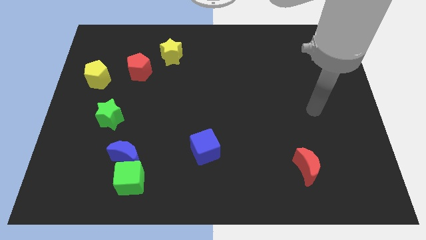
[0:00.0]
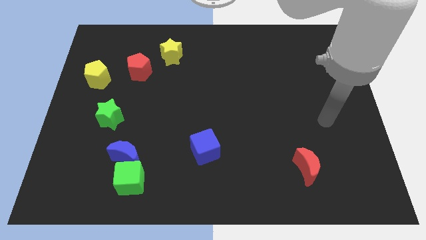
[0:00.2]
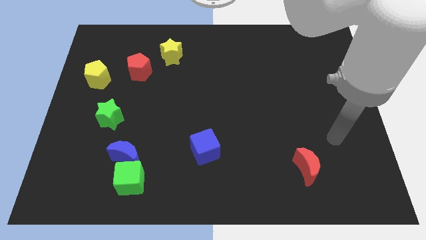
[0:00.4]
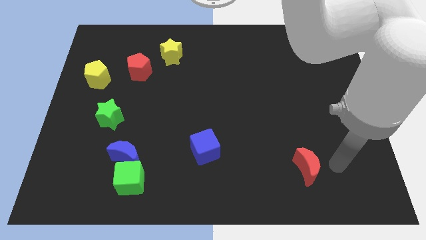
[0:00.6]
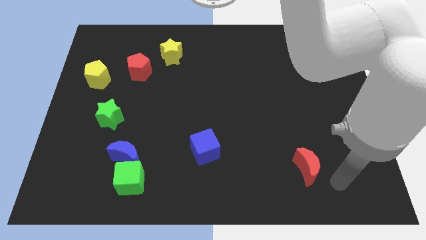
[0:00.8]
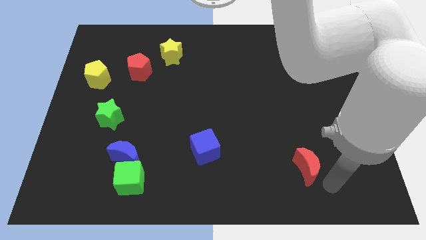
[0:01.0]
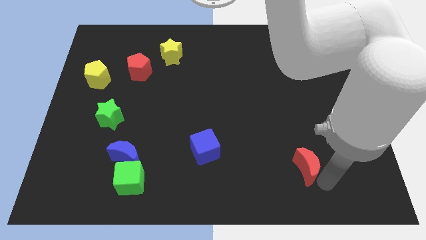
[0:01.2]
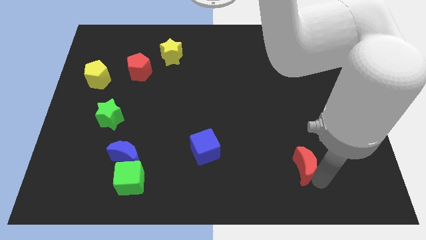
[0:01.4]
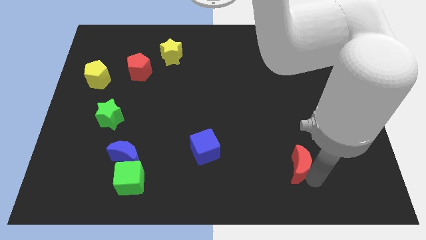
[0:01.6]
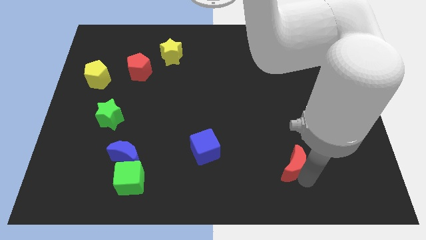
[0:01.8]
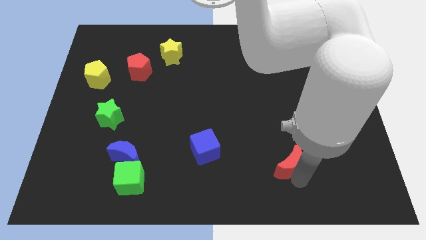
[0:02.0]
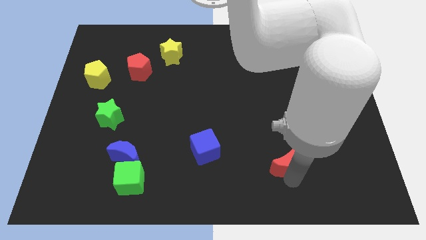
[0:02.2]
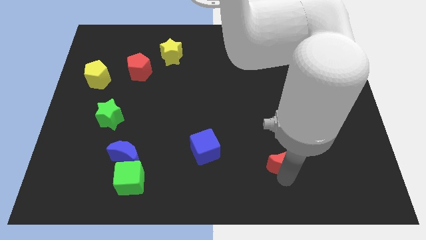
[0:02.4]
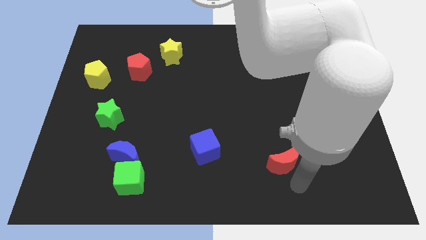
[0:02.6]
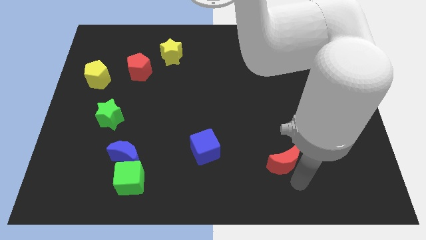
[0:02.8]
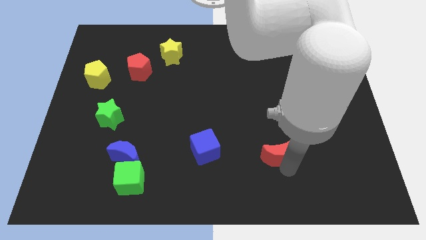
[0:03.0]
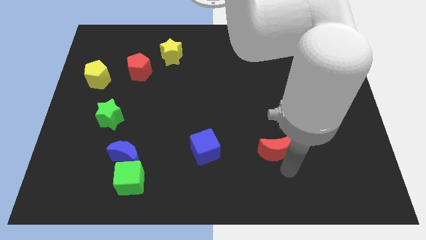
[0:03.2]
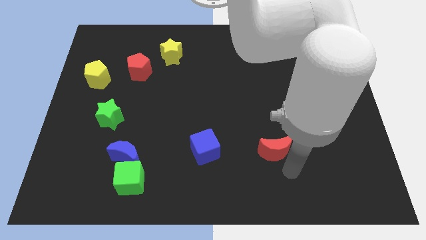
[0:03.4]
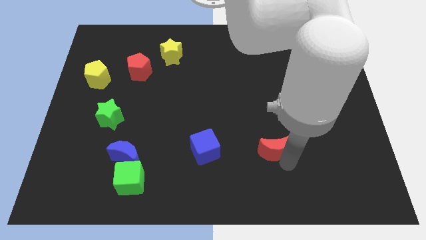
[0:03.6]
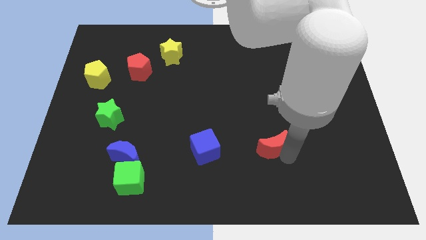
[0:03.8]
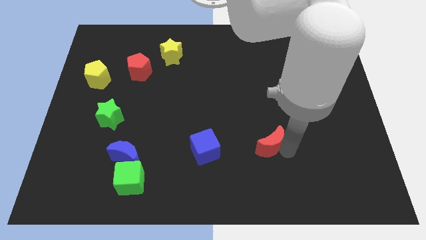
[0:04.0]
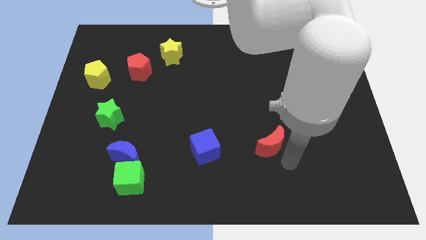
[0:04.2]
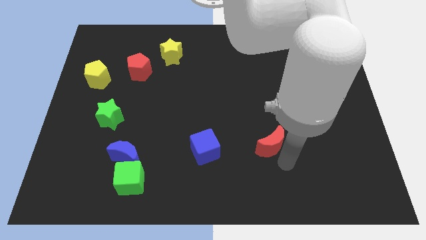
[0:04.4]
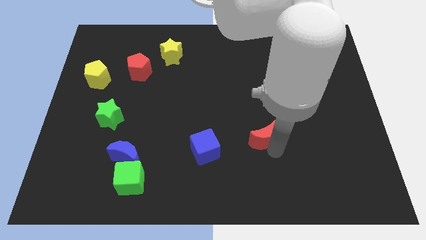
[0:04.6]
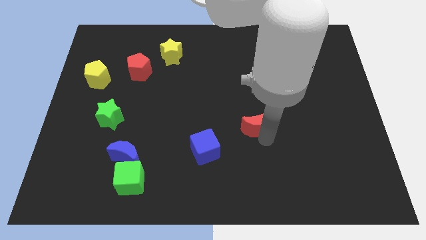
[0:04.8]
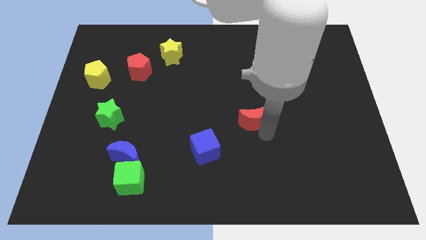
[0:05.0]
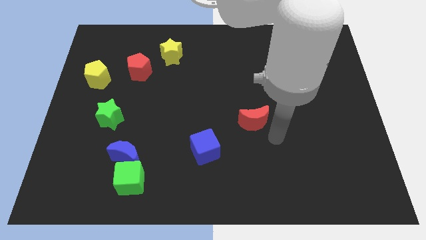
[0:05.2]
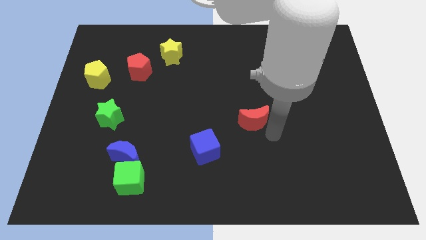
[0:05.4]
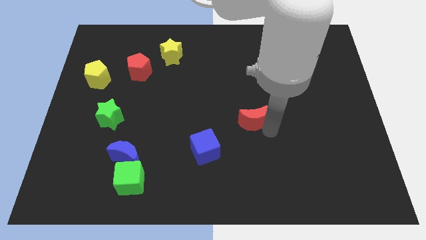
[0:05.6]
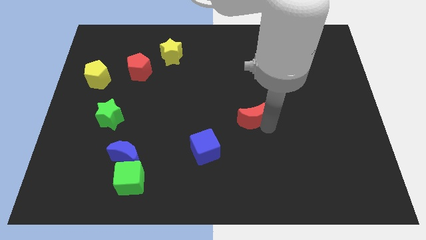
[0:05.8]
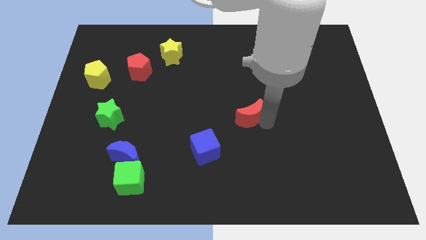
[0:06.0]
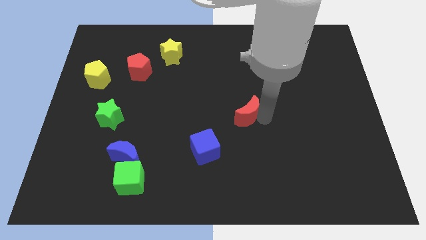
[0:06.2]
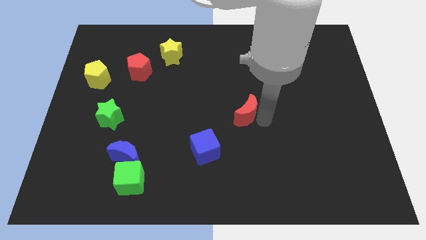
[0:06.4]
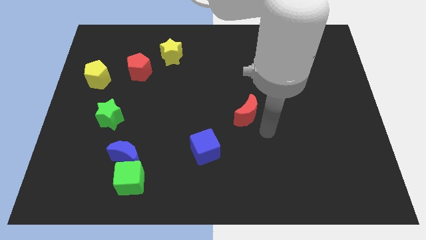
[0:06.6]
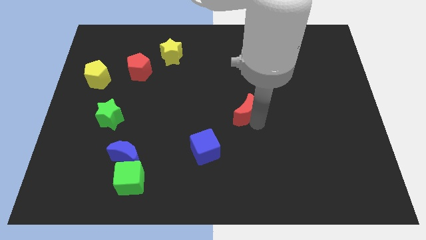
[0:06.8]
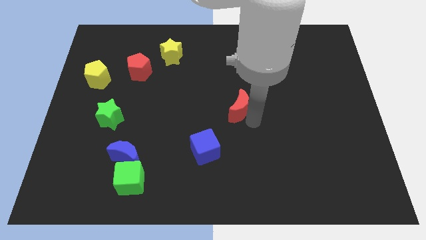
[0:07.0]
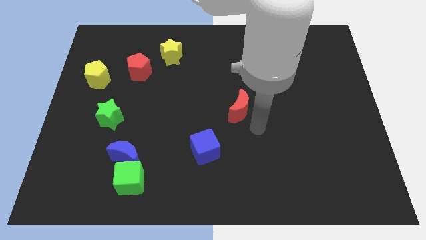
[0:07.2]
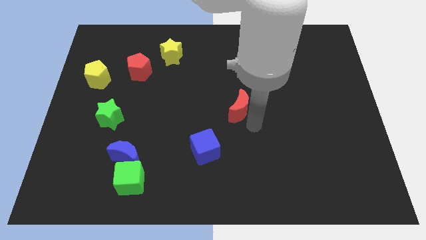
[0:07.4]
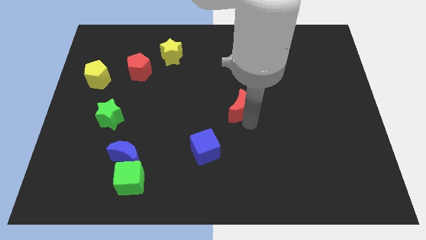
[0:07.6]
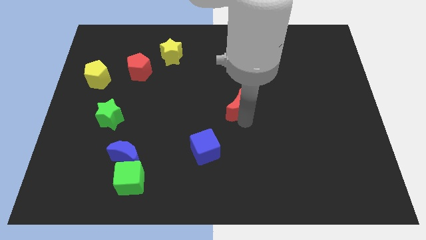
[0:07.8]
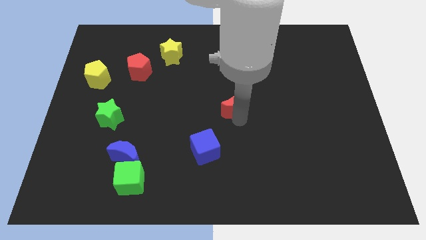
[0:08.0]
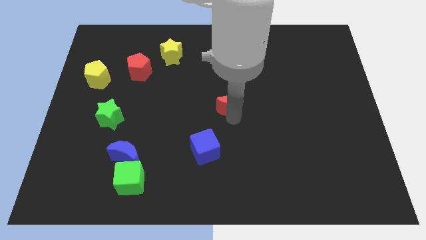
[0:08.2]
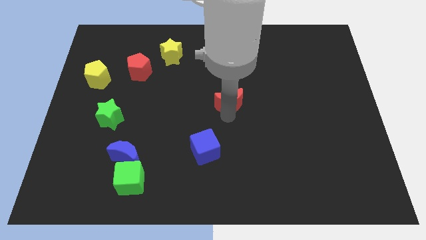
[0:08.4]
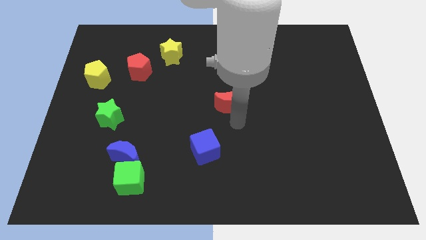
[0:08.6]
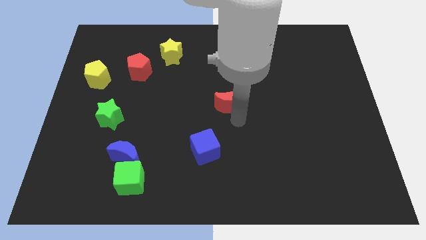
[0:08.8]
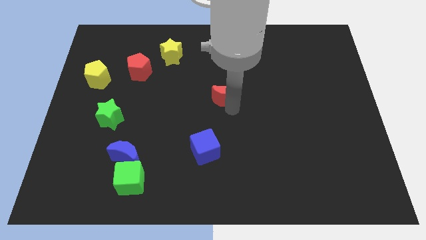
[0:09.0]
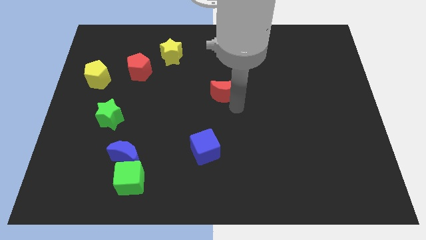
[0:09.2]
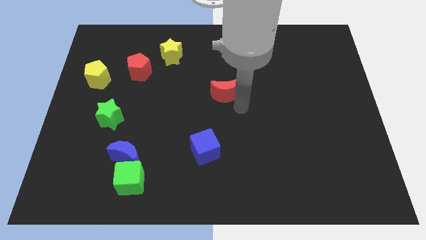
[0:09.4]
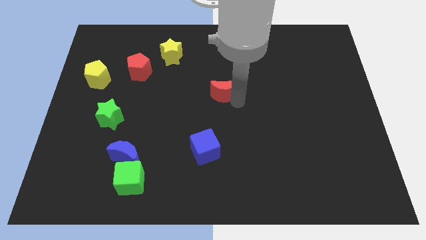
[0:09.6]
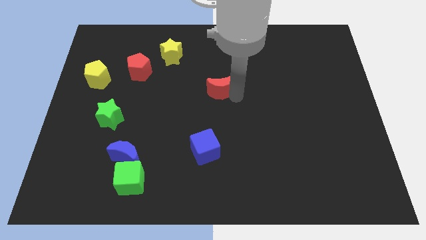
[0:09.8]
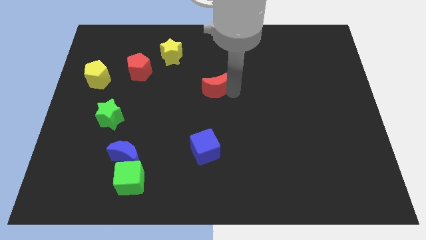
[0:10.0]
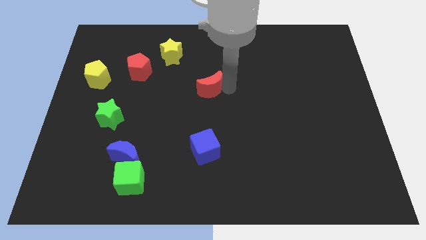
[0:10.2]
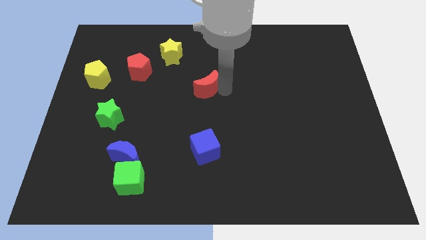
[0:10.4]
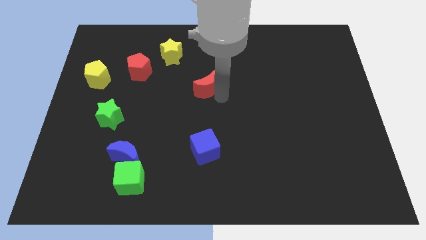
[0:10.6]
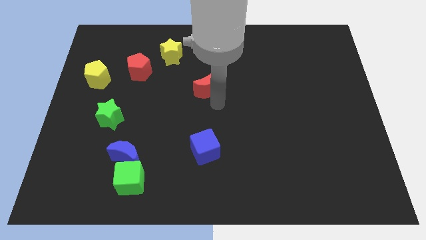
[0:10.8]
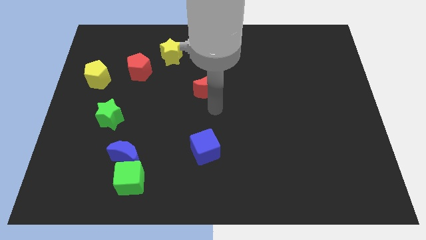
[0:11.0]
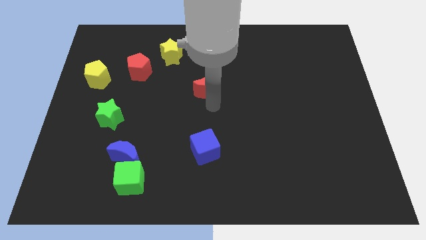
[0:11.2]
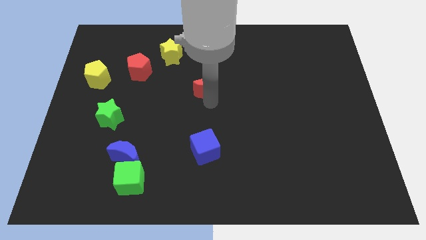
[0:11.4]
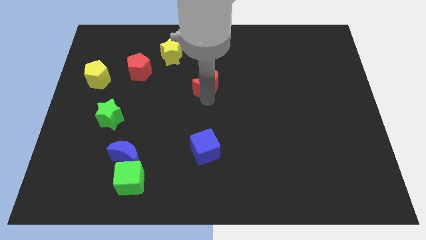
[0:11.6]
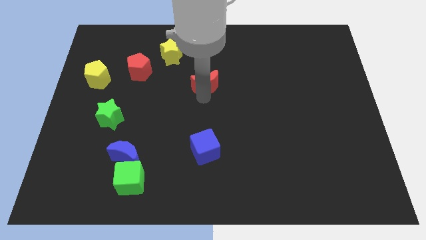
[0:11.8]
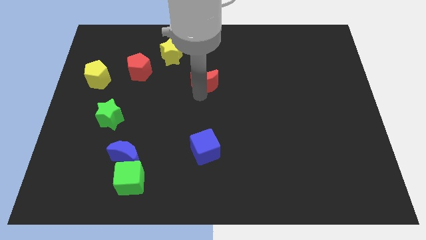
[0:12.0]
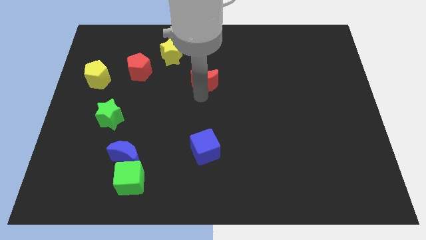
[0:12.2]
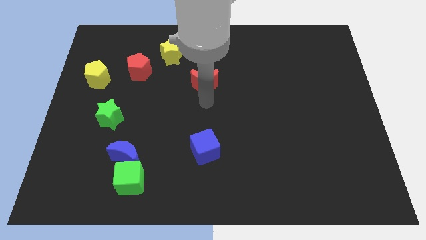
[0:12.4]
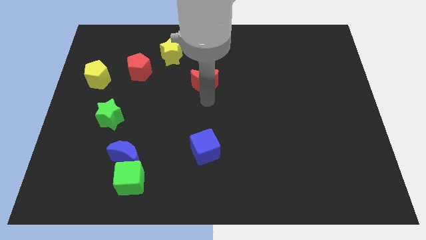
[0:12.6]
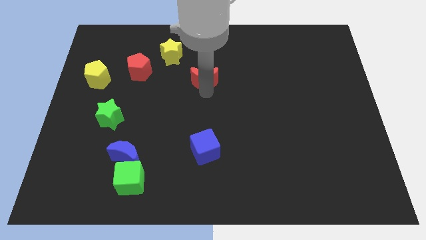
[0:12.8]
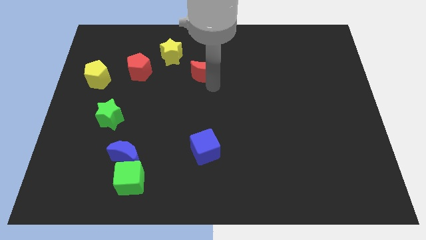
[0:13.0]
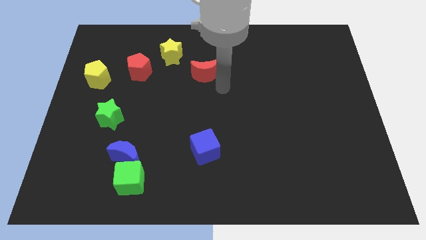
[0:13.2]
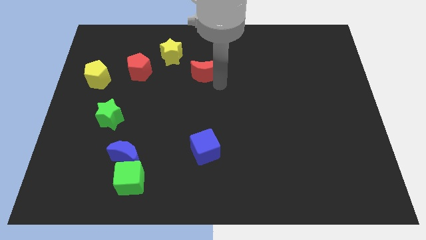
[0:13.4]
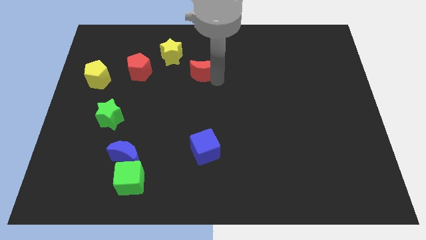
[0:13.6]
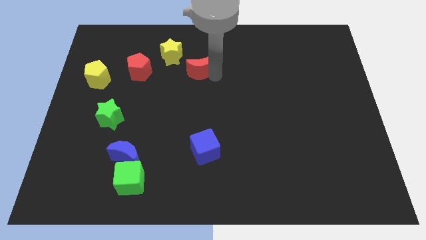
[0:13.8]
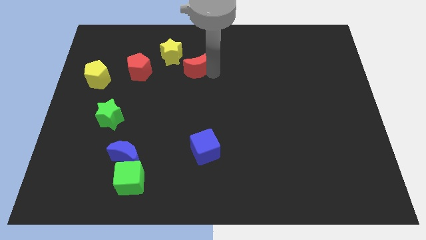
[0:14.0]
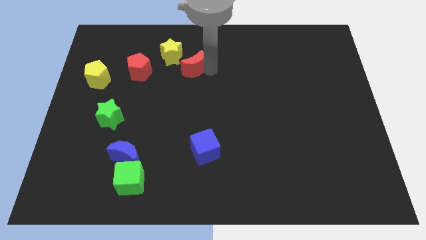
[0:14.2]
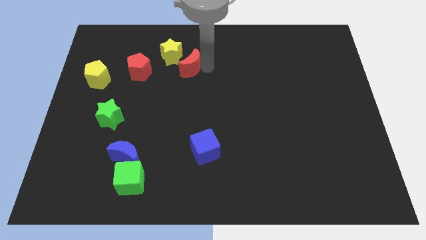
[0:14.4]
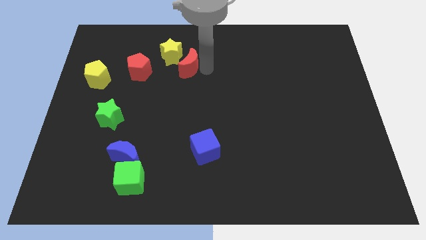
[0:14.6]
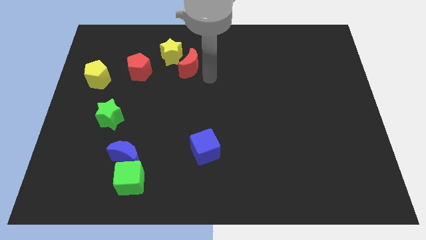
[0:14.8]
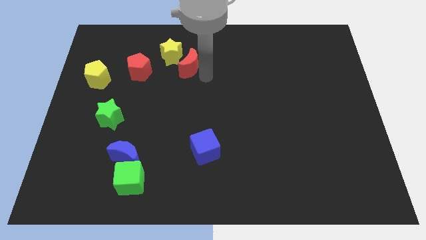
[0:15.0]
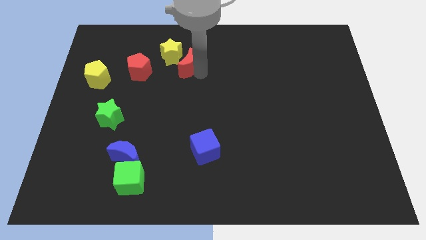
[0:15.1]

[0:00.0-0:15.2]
move the red moon next to the yellow star
